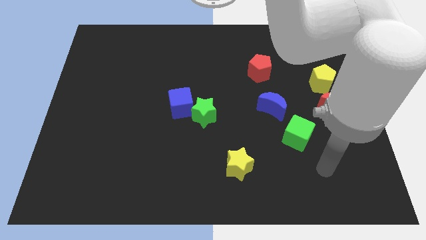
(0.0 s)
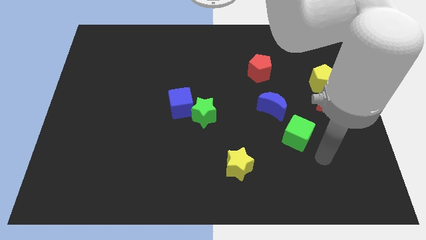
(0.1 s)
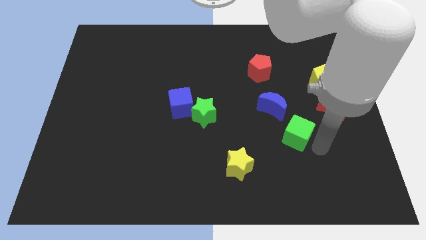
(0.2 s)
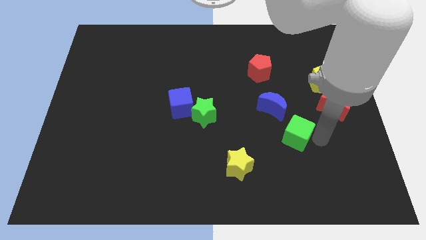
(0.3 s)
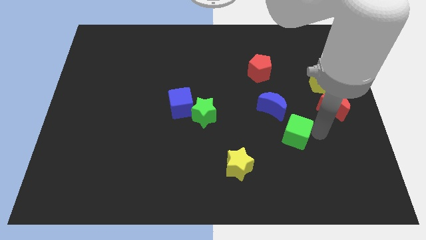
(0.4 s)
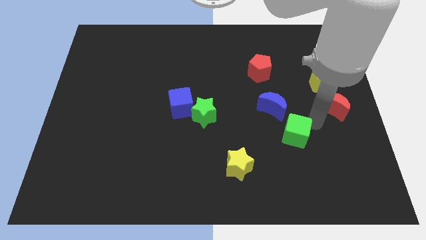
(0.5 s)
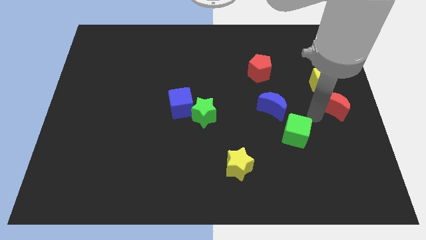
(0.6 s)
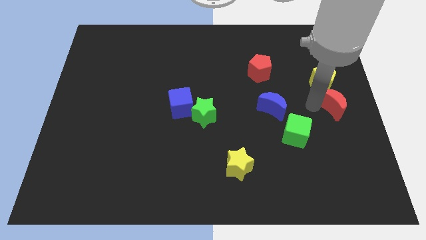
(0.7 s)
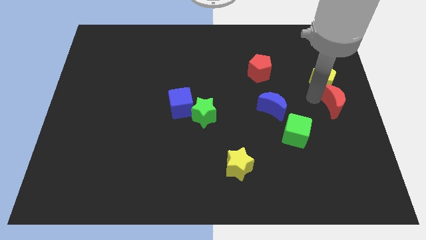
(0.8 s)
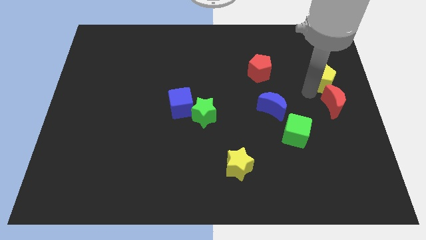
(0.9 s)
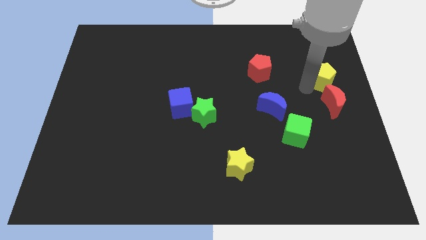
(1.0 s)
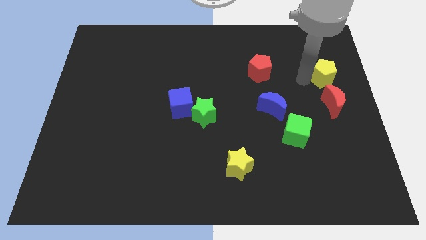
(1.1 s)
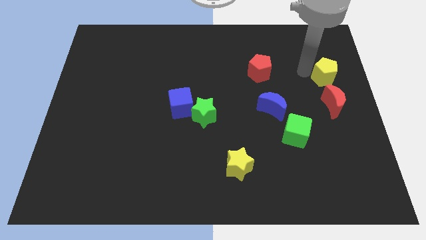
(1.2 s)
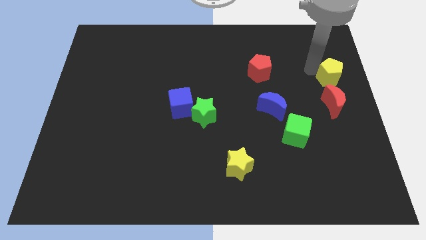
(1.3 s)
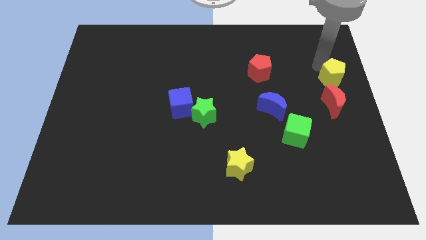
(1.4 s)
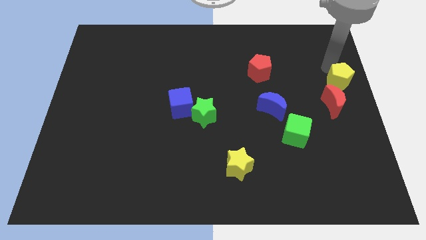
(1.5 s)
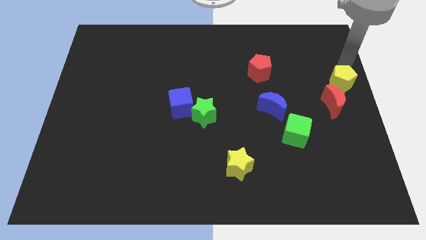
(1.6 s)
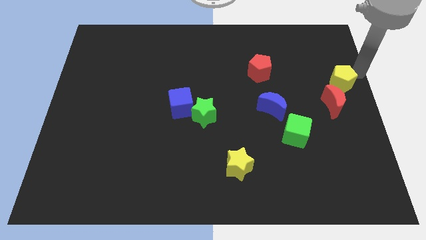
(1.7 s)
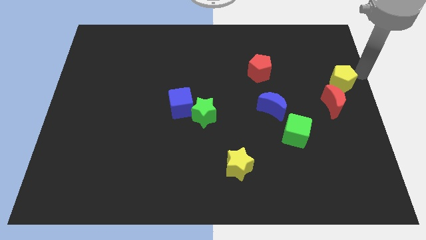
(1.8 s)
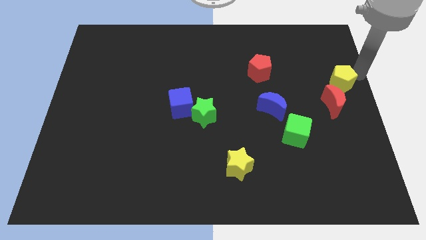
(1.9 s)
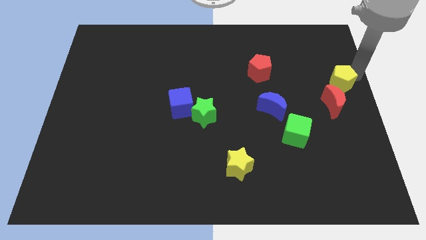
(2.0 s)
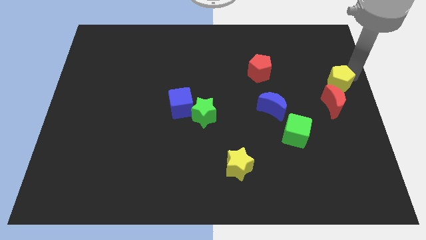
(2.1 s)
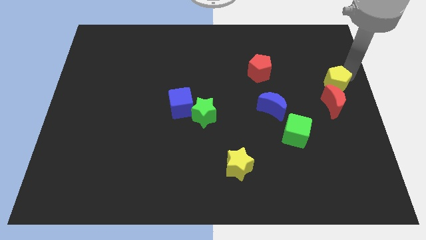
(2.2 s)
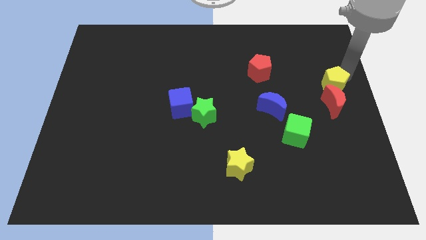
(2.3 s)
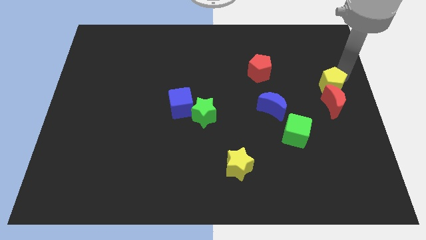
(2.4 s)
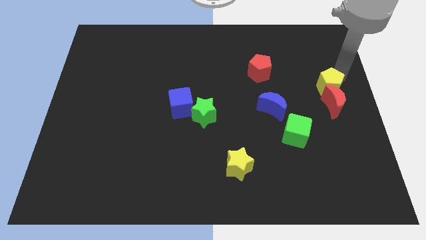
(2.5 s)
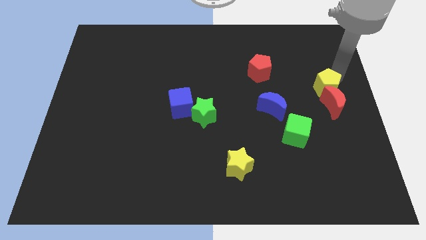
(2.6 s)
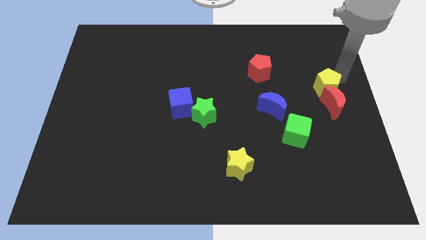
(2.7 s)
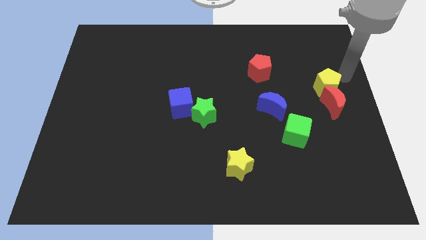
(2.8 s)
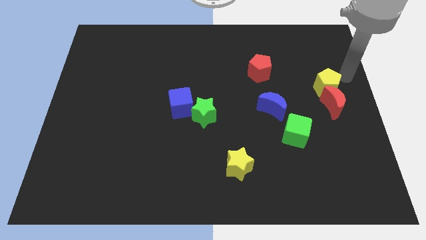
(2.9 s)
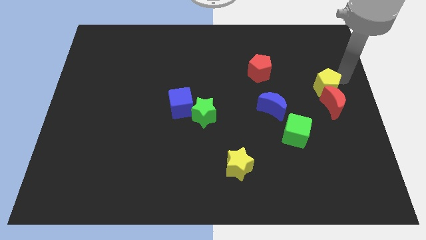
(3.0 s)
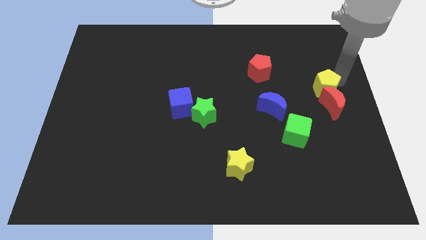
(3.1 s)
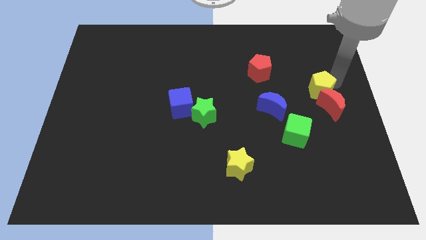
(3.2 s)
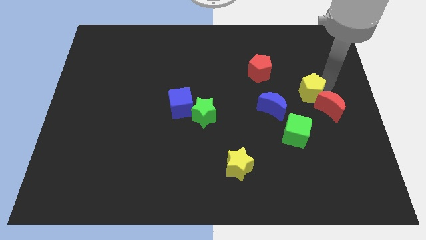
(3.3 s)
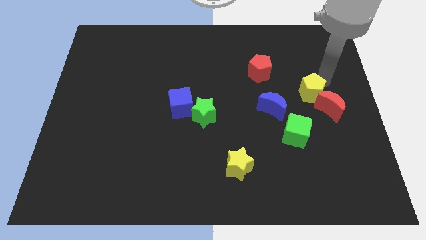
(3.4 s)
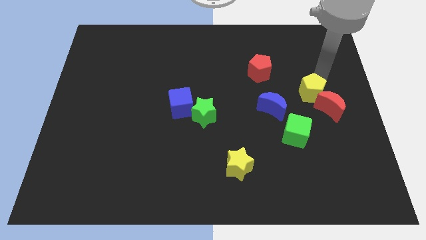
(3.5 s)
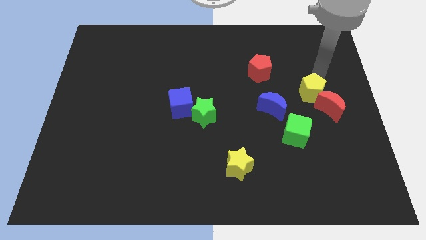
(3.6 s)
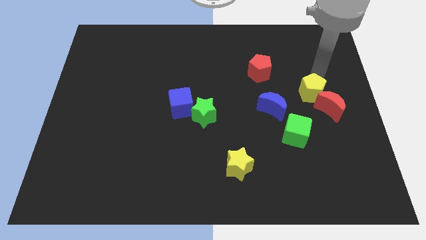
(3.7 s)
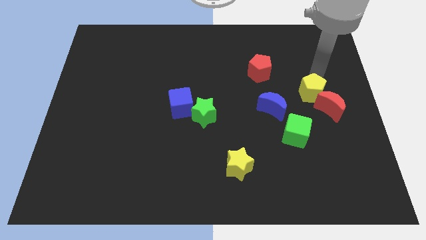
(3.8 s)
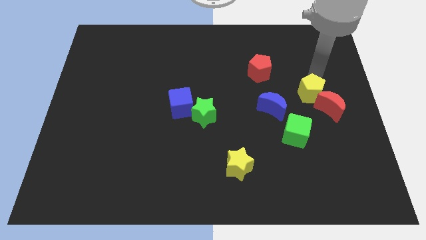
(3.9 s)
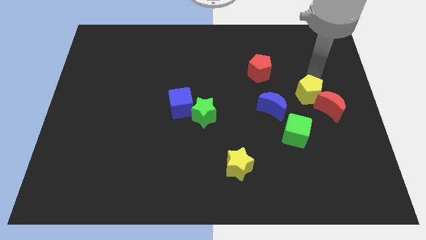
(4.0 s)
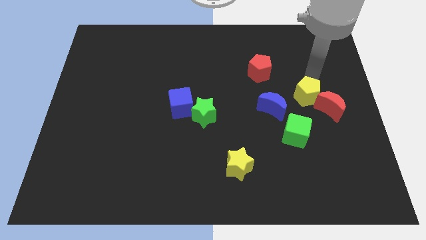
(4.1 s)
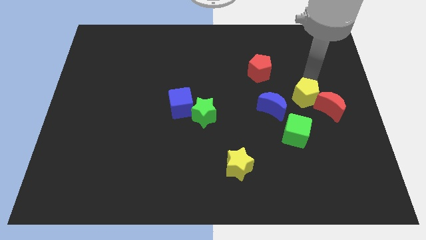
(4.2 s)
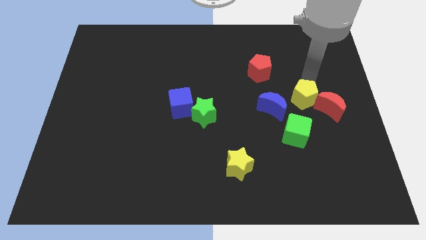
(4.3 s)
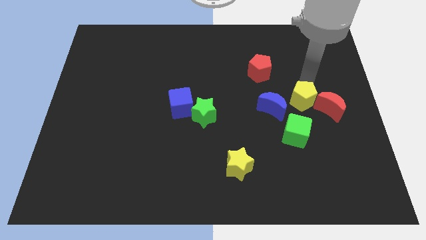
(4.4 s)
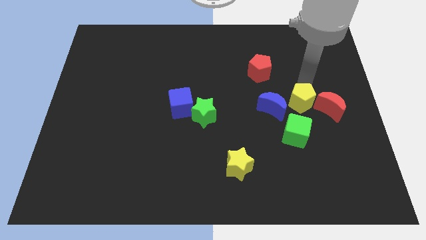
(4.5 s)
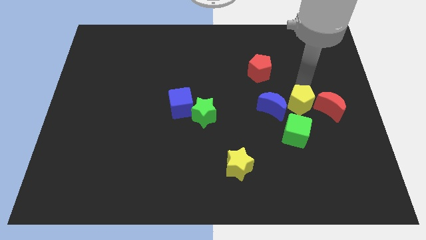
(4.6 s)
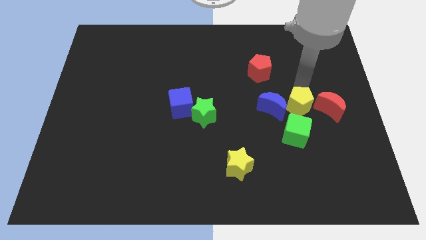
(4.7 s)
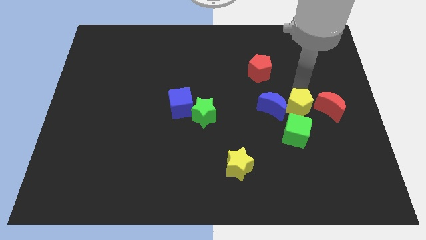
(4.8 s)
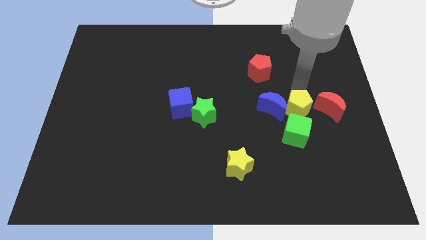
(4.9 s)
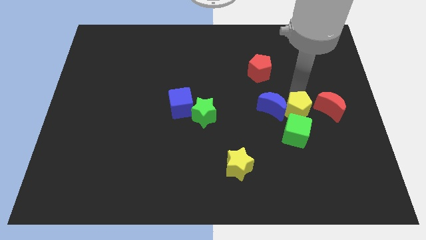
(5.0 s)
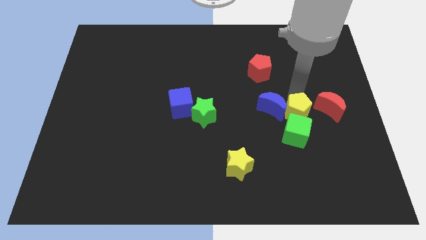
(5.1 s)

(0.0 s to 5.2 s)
put the yellow pentagon close to the green cube

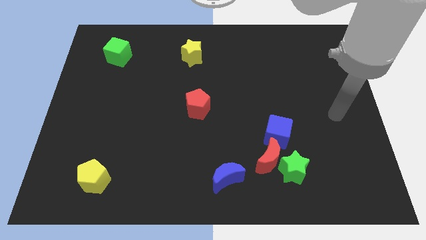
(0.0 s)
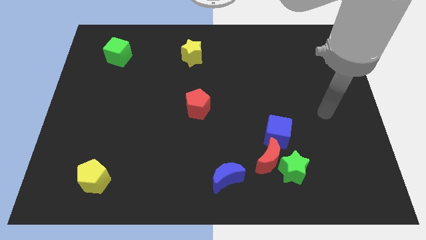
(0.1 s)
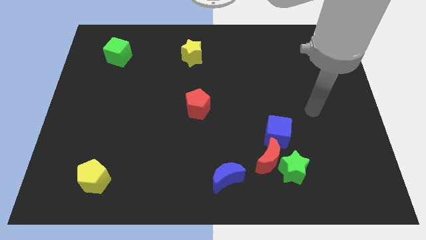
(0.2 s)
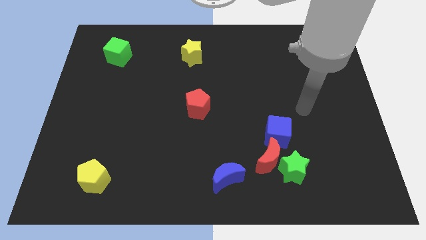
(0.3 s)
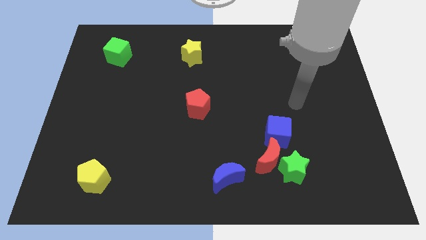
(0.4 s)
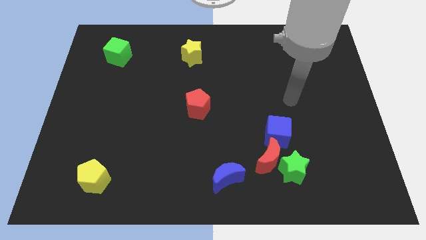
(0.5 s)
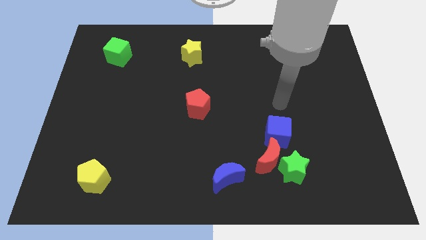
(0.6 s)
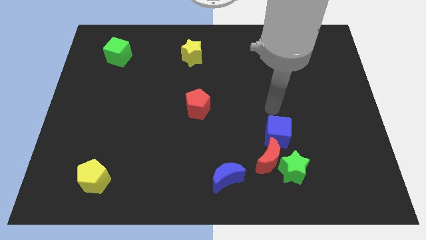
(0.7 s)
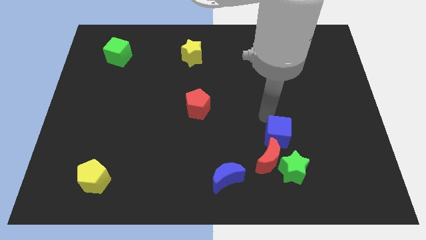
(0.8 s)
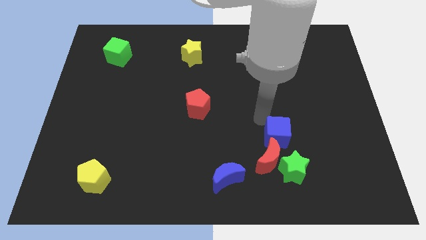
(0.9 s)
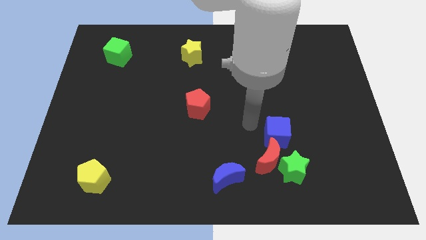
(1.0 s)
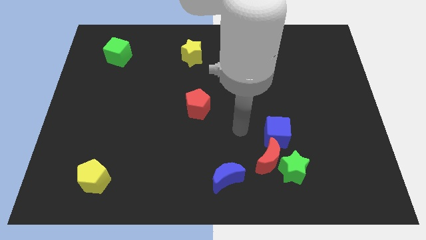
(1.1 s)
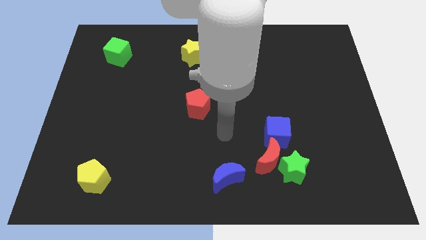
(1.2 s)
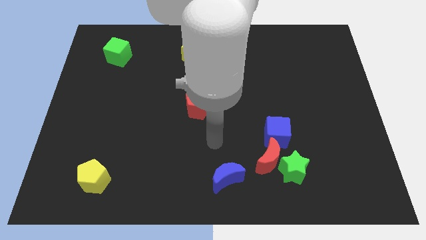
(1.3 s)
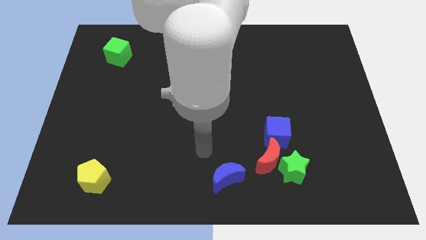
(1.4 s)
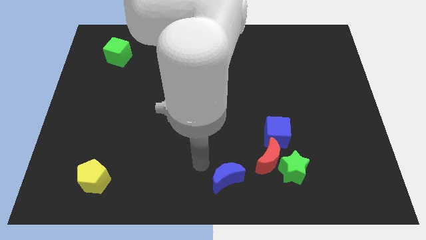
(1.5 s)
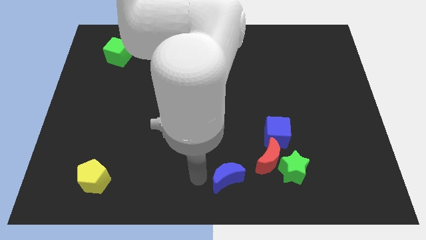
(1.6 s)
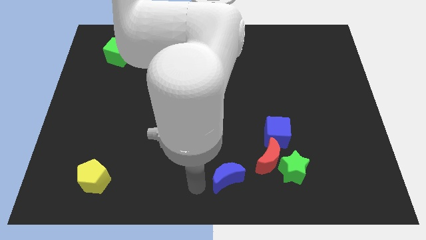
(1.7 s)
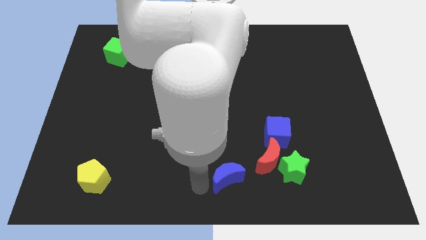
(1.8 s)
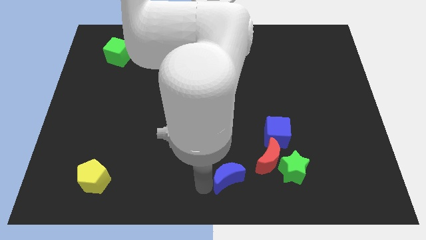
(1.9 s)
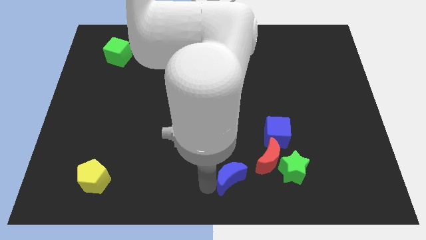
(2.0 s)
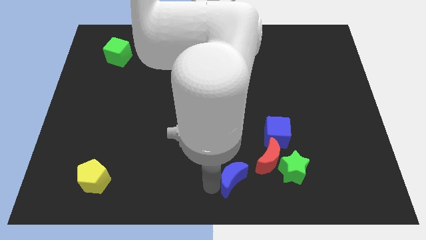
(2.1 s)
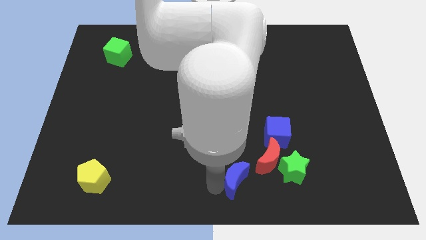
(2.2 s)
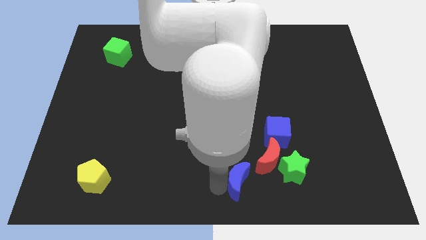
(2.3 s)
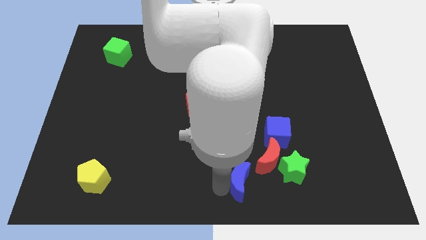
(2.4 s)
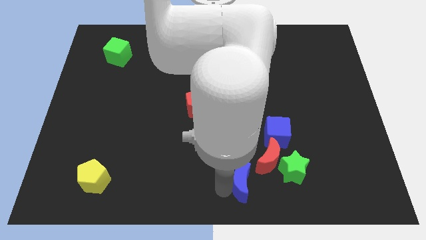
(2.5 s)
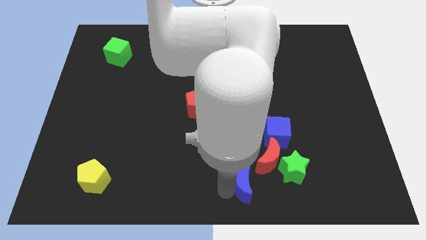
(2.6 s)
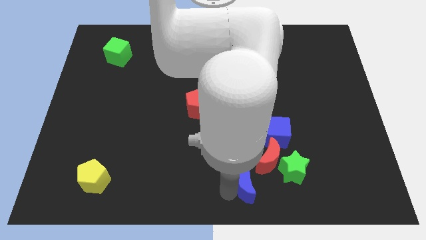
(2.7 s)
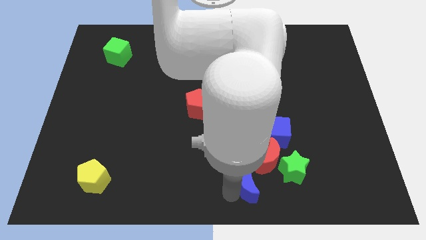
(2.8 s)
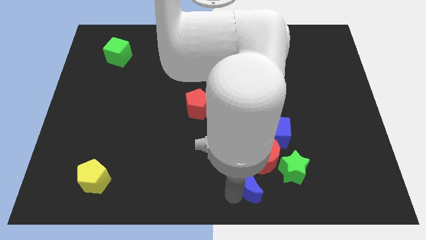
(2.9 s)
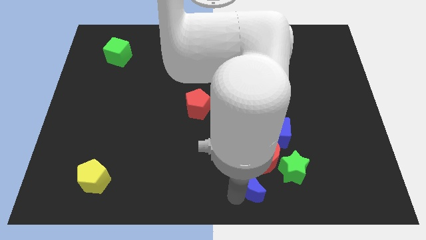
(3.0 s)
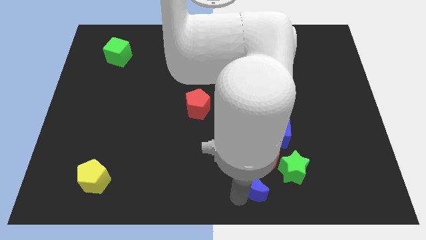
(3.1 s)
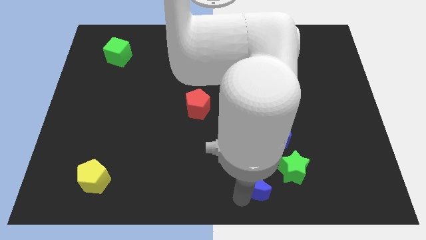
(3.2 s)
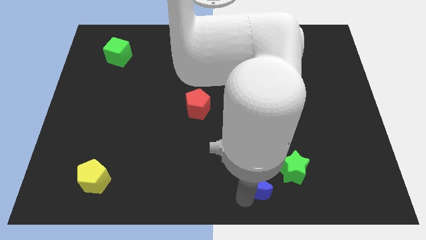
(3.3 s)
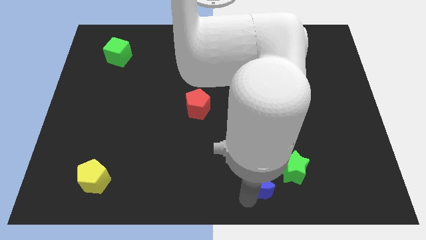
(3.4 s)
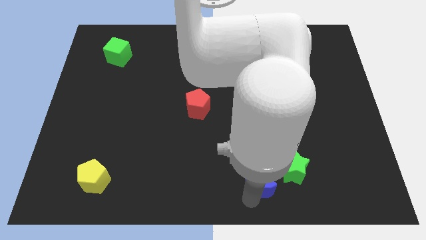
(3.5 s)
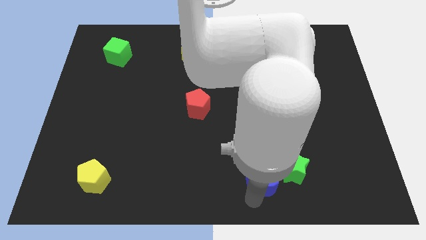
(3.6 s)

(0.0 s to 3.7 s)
move the blue moon towards the red moon
